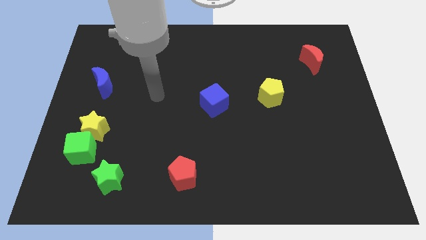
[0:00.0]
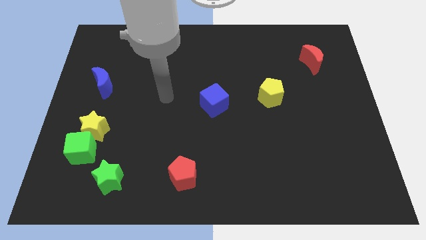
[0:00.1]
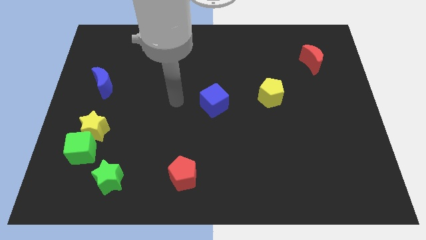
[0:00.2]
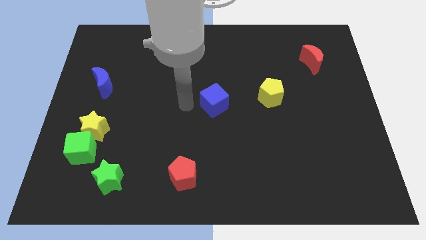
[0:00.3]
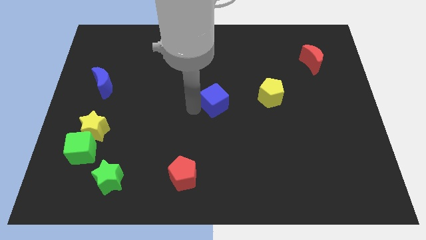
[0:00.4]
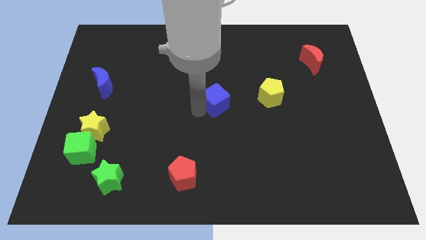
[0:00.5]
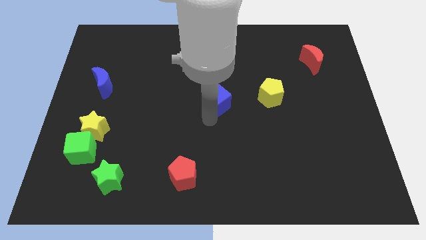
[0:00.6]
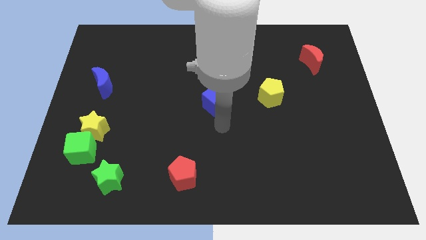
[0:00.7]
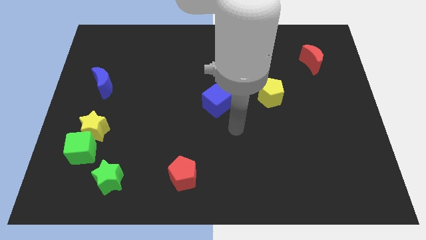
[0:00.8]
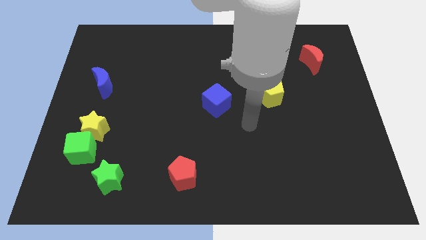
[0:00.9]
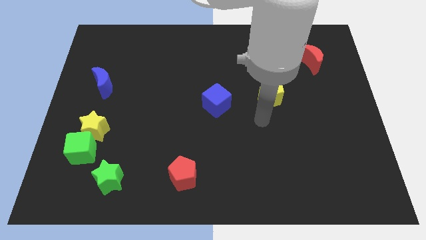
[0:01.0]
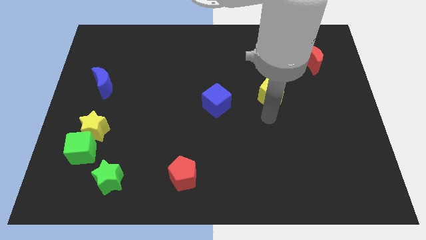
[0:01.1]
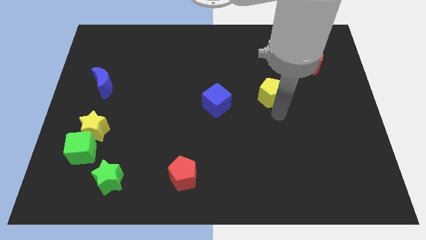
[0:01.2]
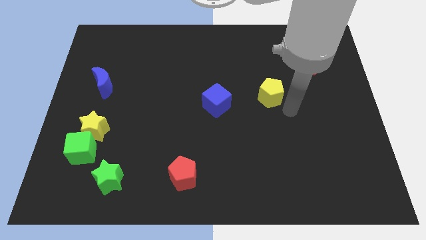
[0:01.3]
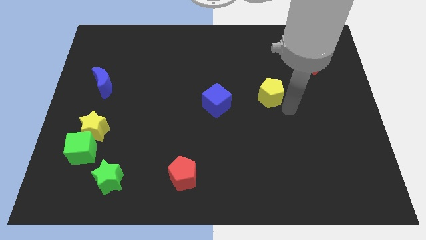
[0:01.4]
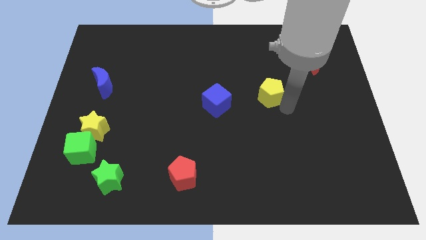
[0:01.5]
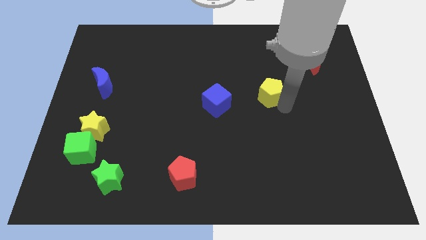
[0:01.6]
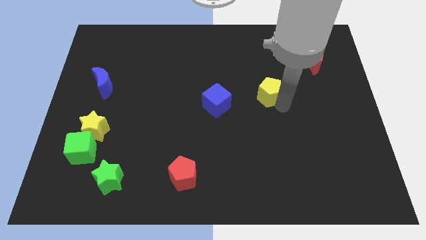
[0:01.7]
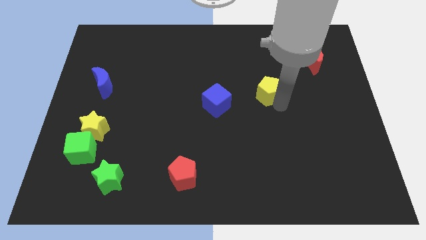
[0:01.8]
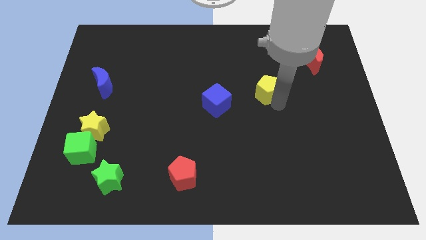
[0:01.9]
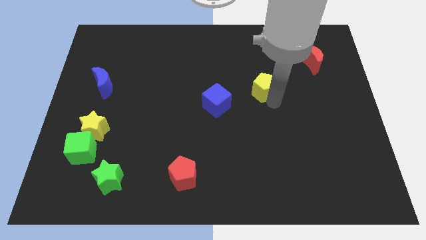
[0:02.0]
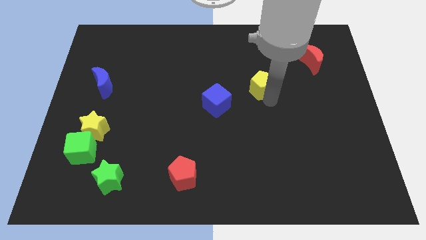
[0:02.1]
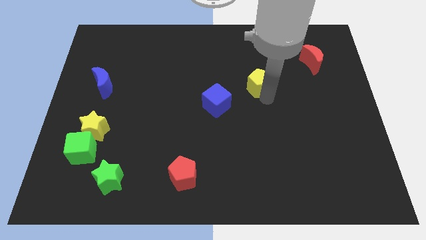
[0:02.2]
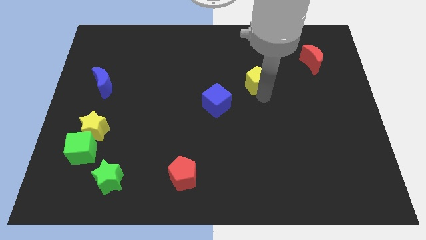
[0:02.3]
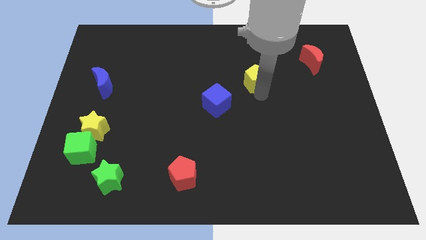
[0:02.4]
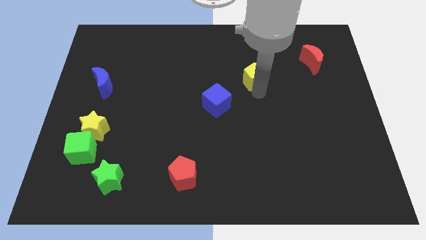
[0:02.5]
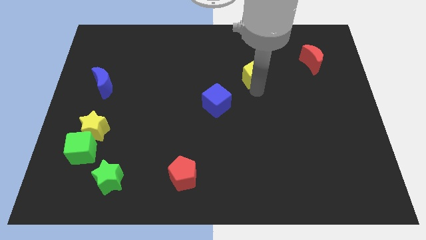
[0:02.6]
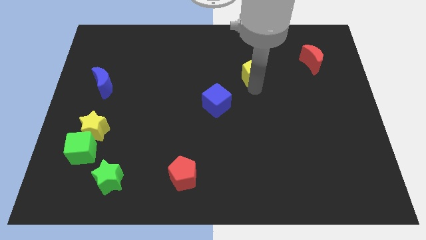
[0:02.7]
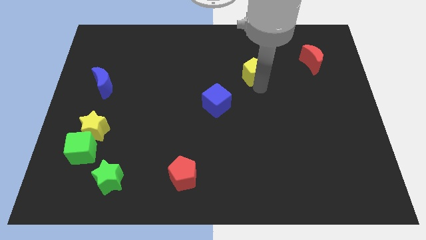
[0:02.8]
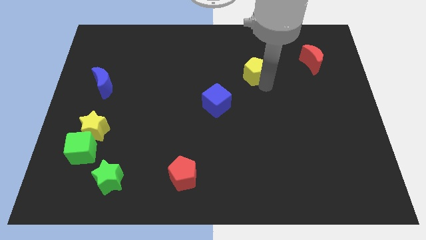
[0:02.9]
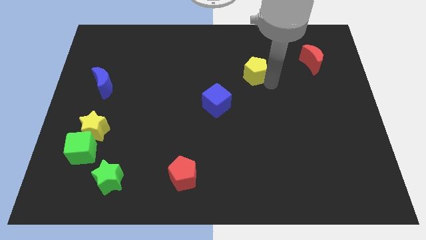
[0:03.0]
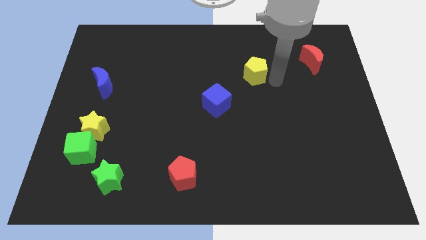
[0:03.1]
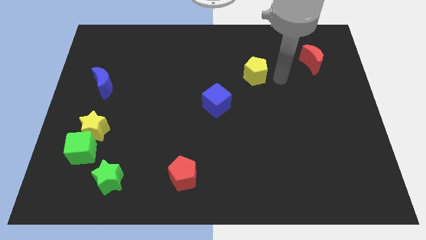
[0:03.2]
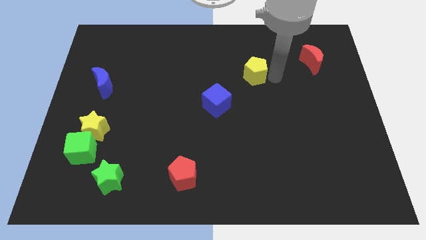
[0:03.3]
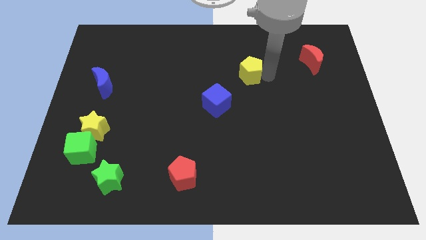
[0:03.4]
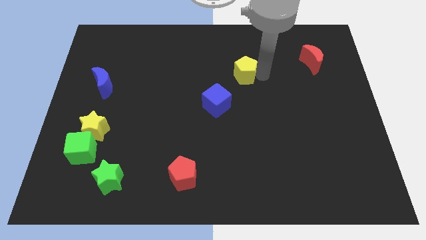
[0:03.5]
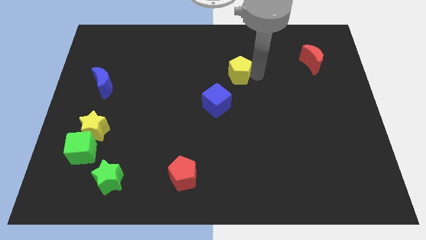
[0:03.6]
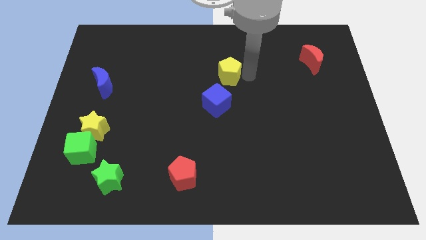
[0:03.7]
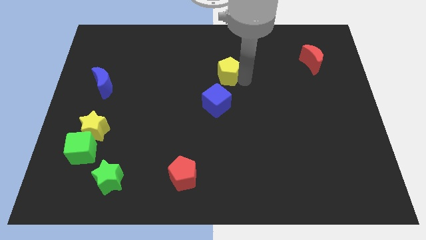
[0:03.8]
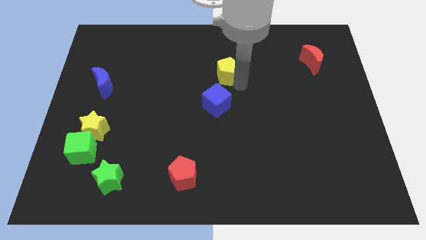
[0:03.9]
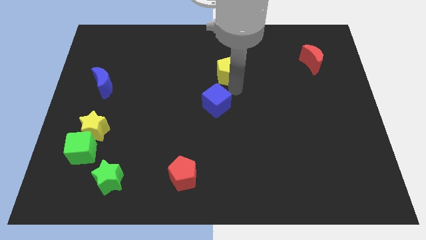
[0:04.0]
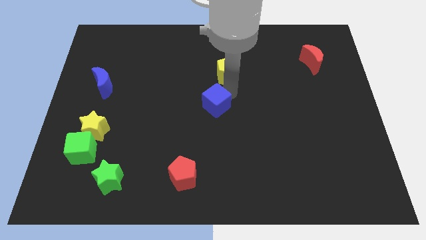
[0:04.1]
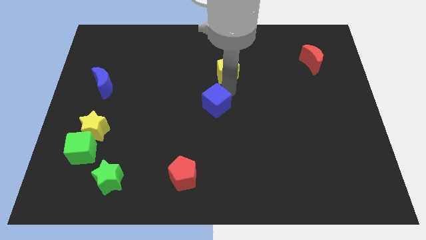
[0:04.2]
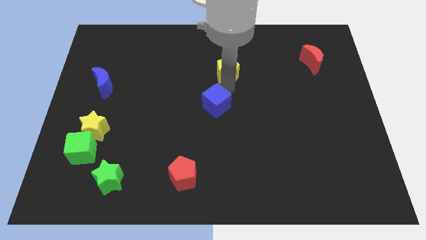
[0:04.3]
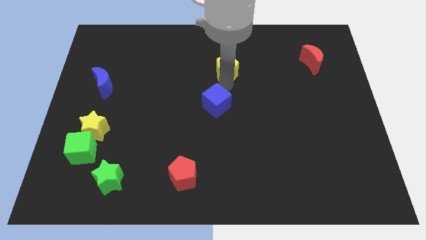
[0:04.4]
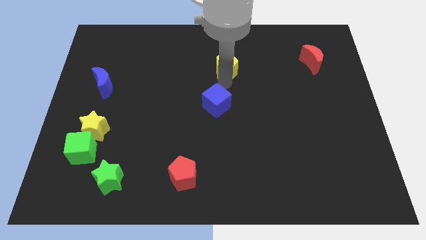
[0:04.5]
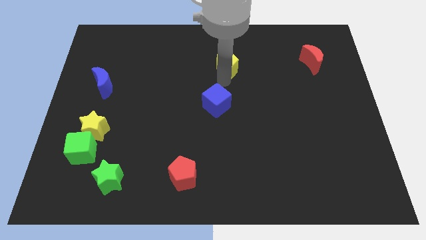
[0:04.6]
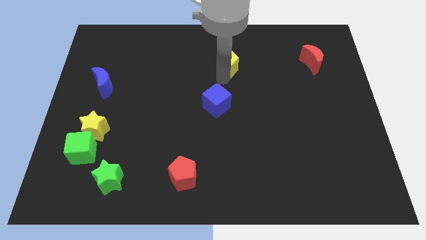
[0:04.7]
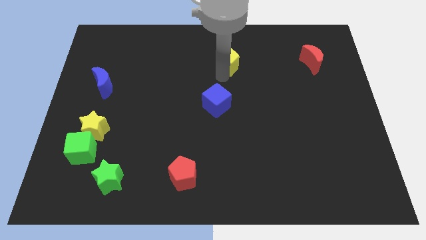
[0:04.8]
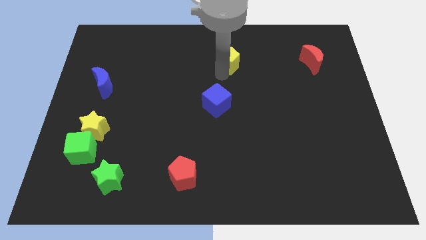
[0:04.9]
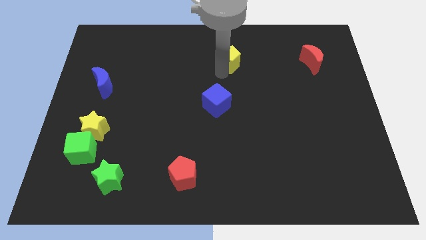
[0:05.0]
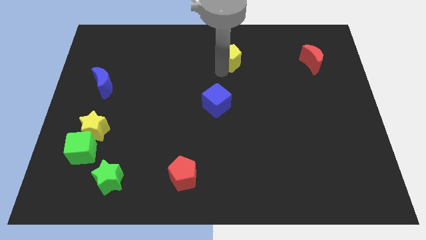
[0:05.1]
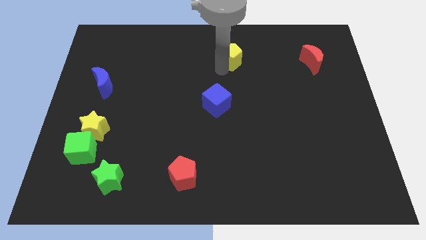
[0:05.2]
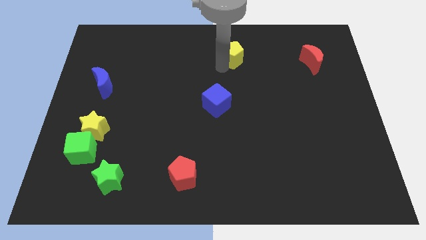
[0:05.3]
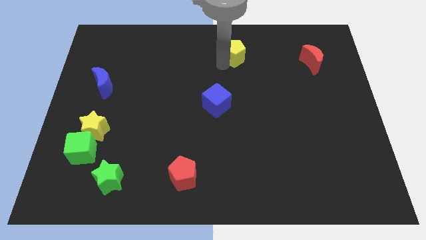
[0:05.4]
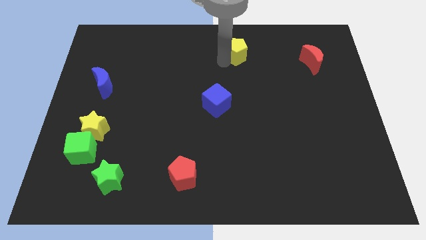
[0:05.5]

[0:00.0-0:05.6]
push the yellow pentagon to the towards your base

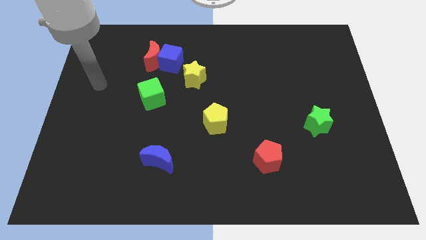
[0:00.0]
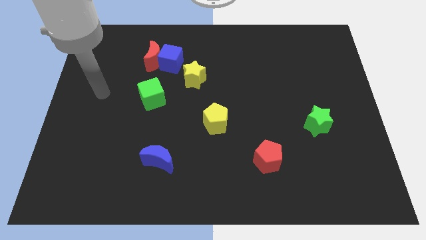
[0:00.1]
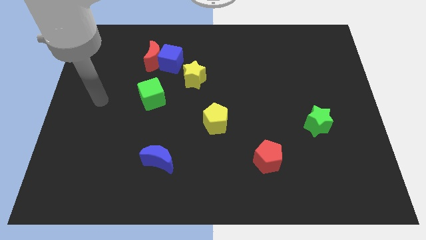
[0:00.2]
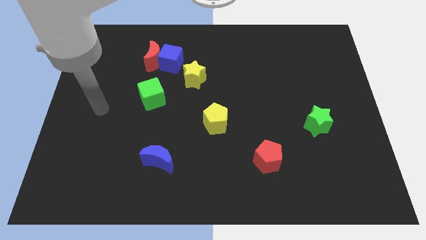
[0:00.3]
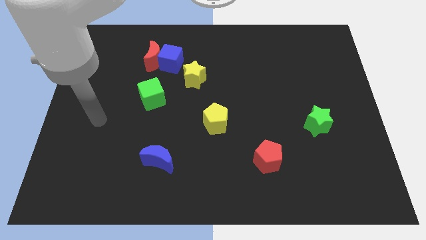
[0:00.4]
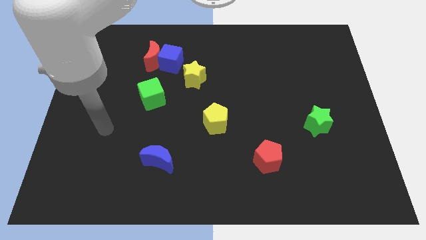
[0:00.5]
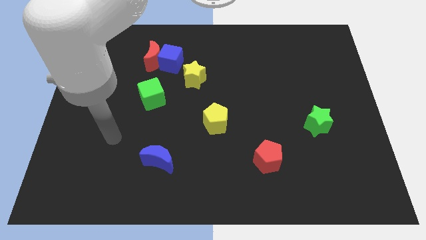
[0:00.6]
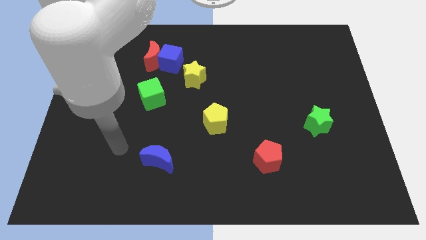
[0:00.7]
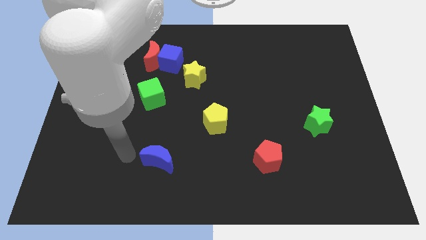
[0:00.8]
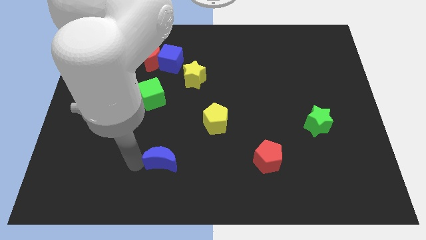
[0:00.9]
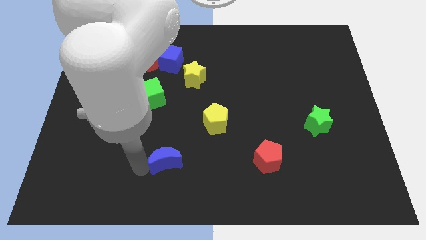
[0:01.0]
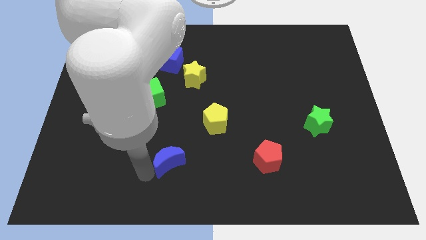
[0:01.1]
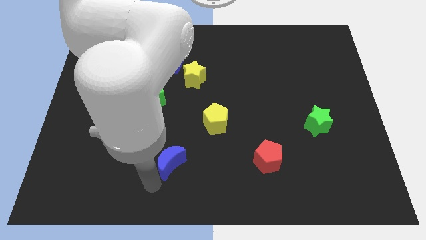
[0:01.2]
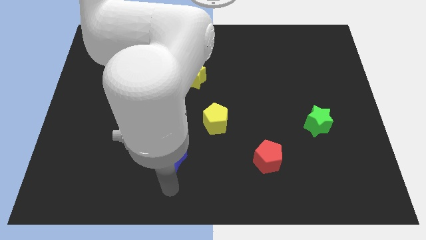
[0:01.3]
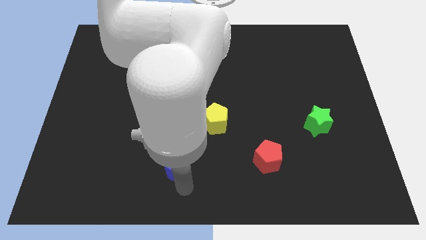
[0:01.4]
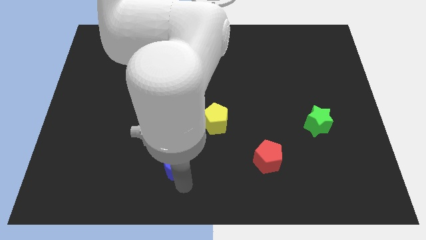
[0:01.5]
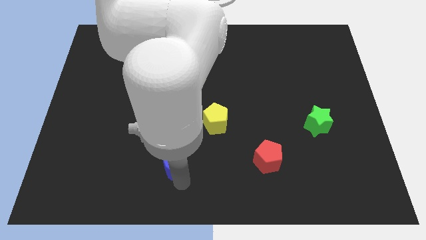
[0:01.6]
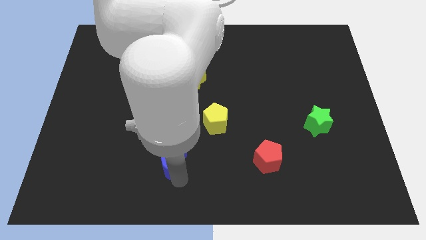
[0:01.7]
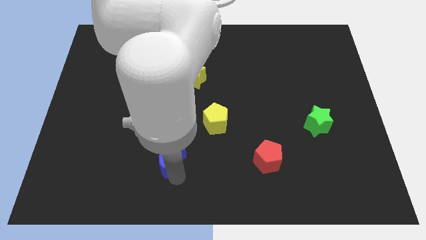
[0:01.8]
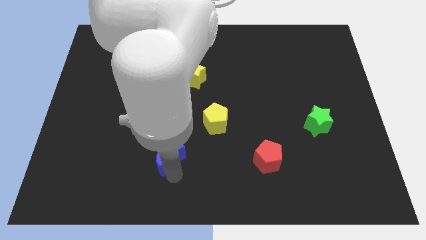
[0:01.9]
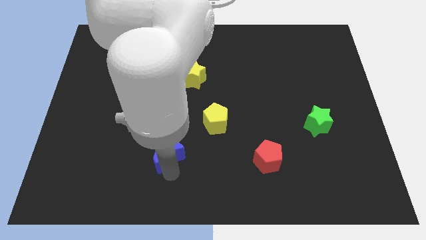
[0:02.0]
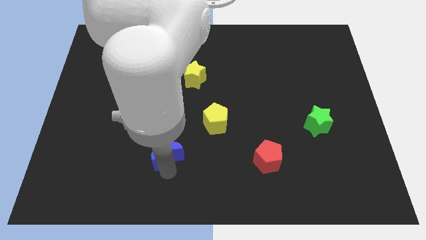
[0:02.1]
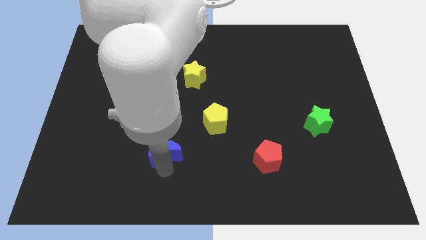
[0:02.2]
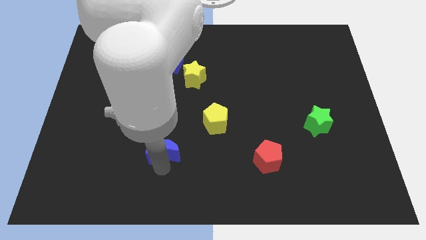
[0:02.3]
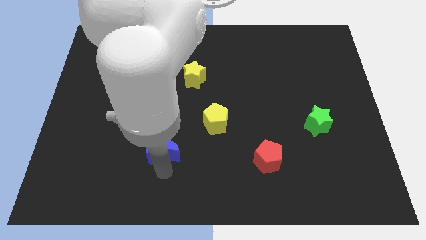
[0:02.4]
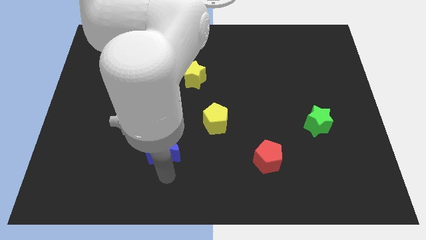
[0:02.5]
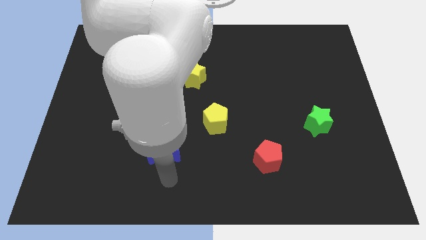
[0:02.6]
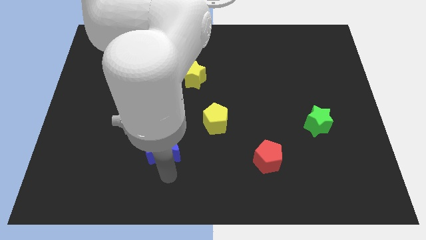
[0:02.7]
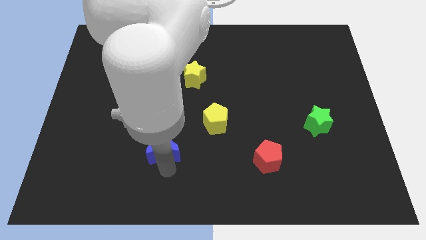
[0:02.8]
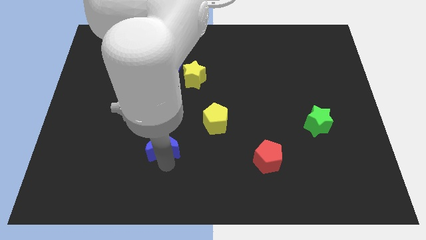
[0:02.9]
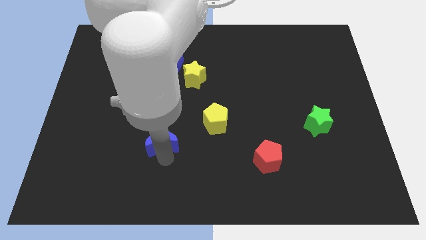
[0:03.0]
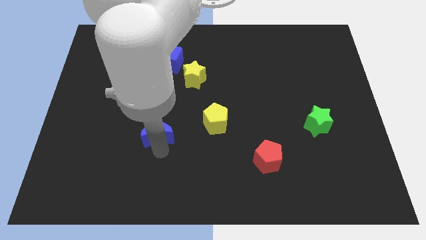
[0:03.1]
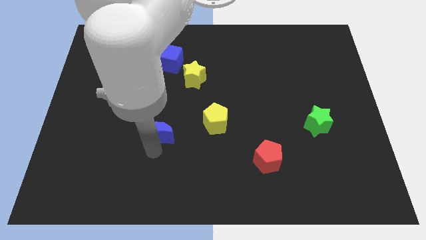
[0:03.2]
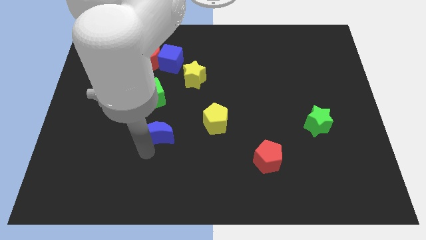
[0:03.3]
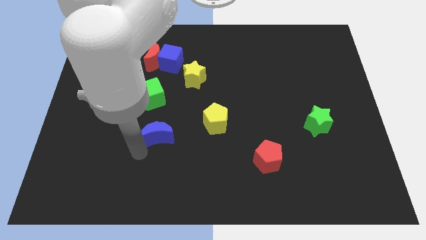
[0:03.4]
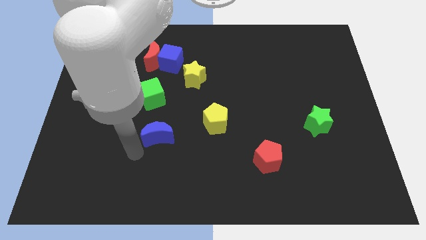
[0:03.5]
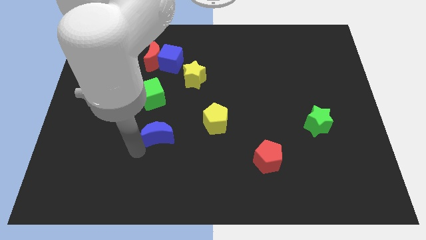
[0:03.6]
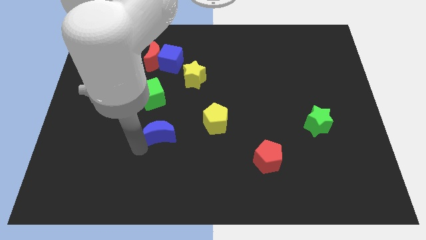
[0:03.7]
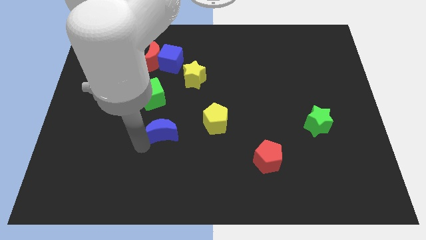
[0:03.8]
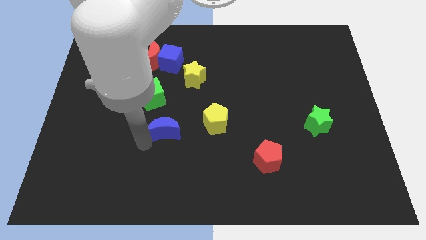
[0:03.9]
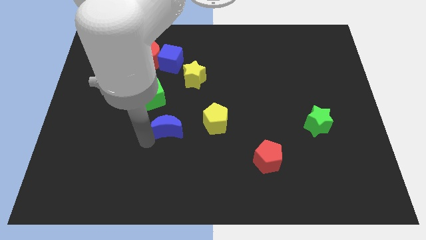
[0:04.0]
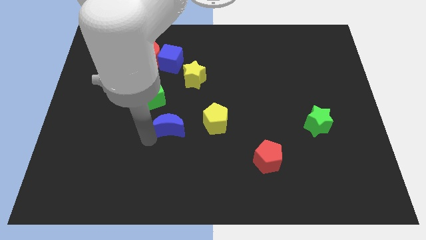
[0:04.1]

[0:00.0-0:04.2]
move the blue moon to the middle
